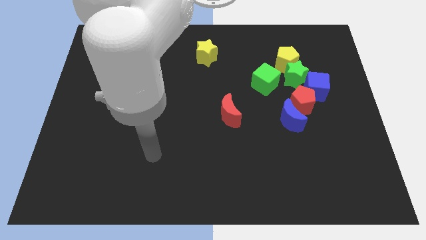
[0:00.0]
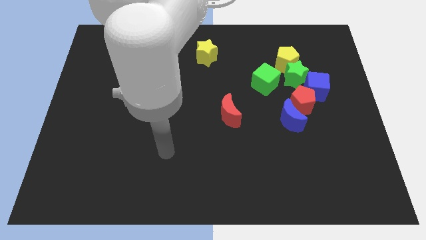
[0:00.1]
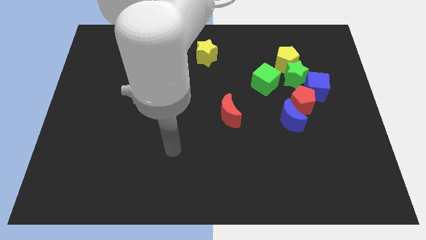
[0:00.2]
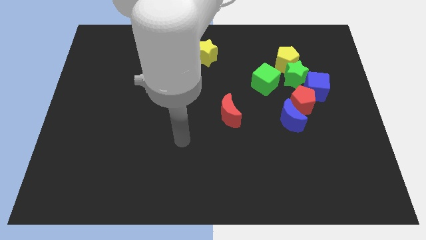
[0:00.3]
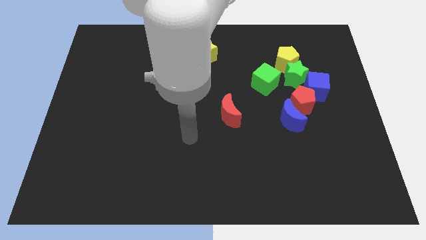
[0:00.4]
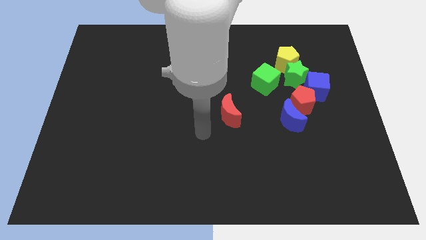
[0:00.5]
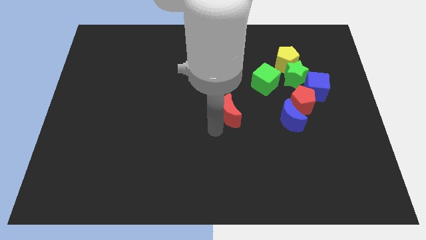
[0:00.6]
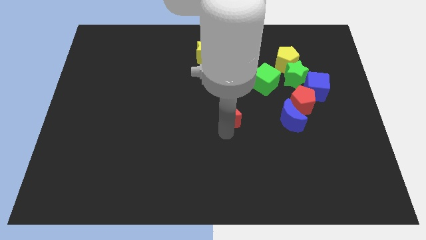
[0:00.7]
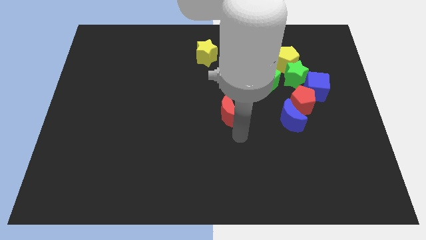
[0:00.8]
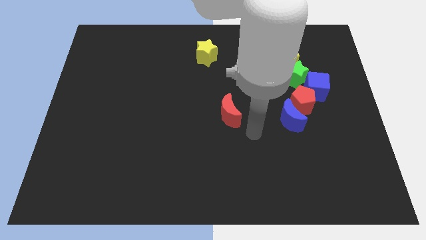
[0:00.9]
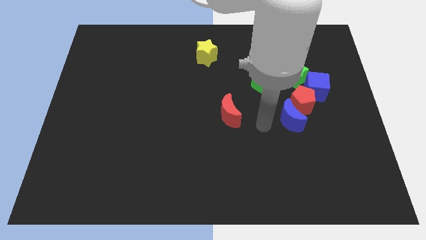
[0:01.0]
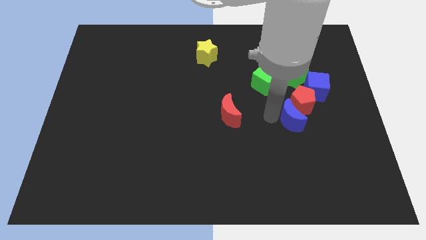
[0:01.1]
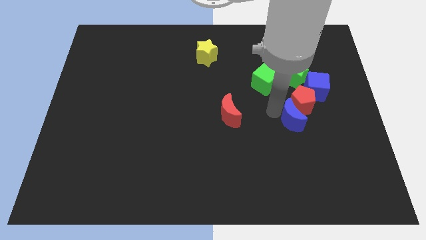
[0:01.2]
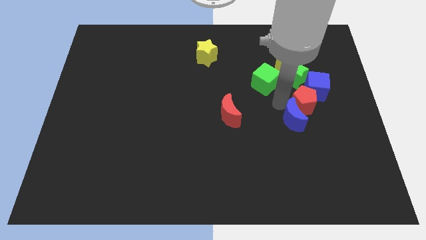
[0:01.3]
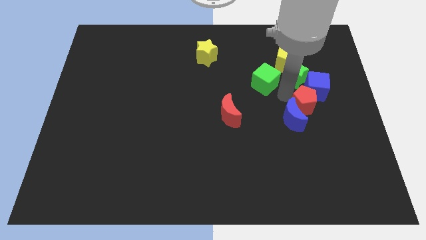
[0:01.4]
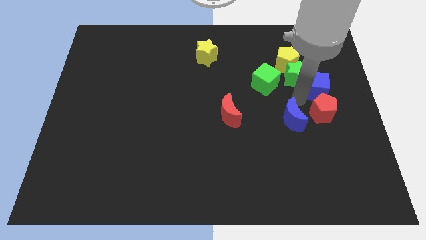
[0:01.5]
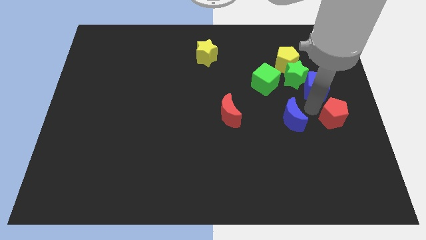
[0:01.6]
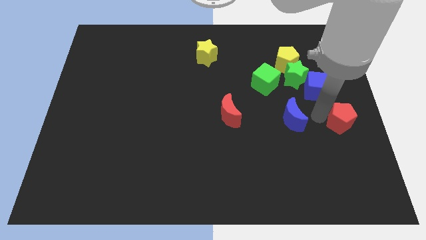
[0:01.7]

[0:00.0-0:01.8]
separate the blue moon from the red pentagon

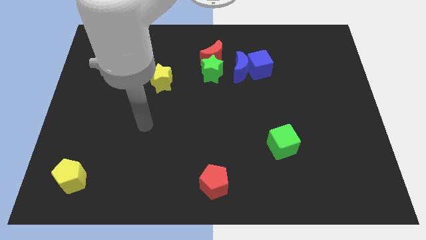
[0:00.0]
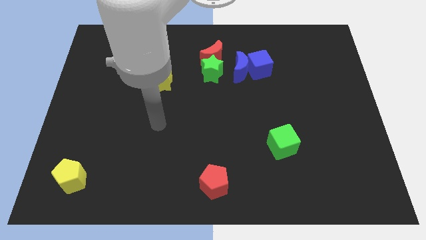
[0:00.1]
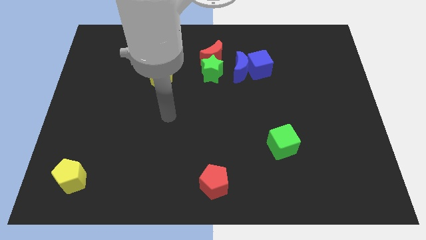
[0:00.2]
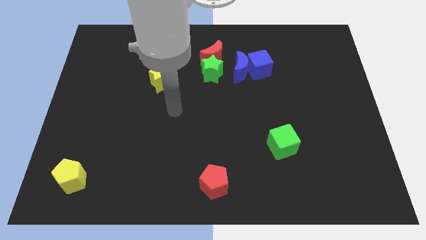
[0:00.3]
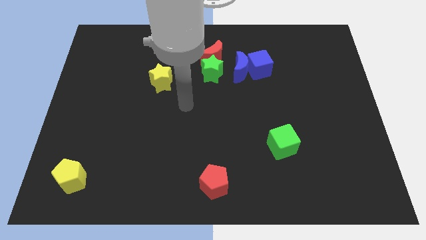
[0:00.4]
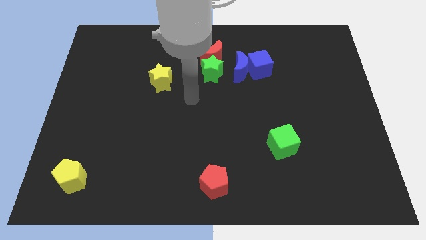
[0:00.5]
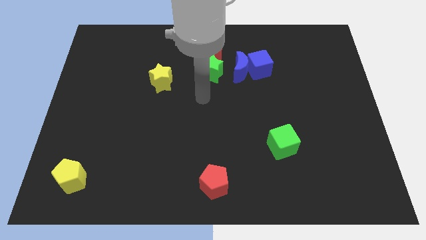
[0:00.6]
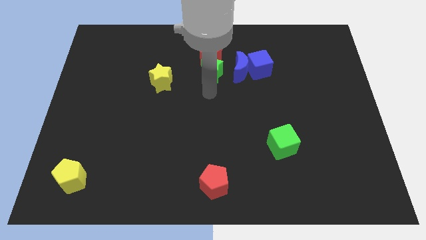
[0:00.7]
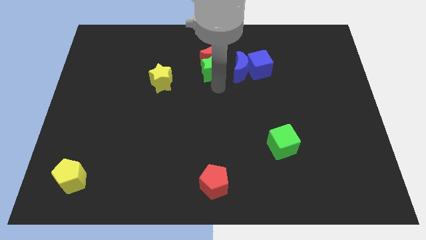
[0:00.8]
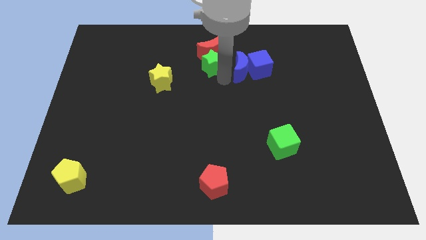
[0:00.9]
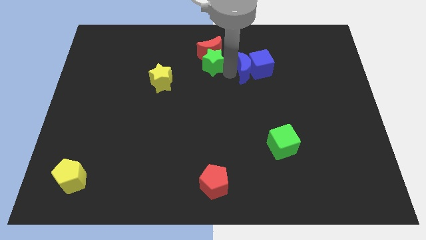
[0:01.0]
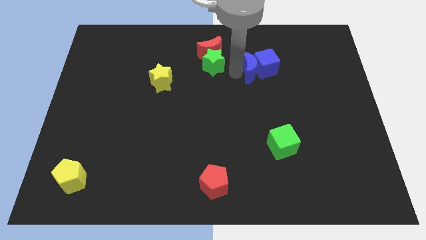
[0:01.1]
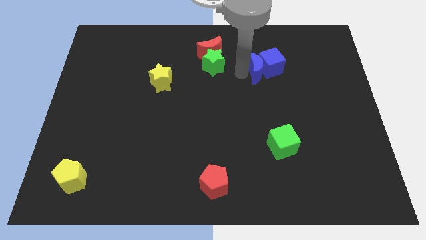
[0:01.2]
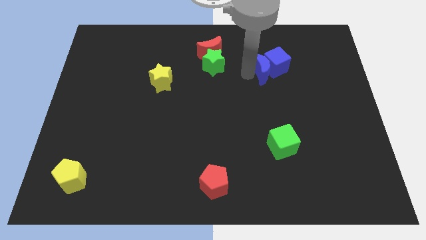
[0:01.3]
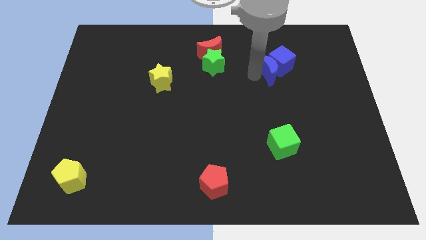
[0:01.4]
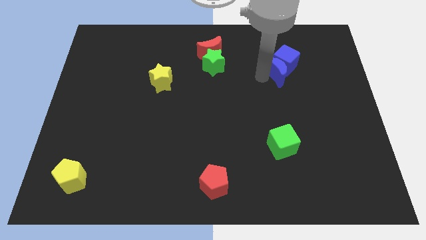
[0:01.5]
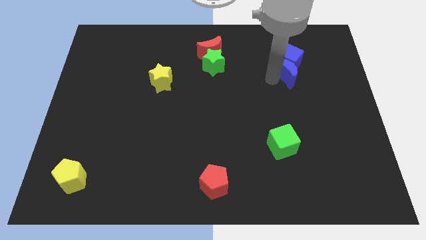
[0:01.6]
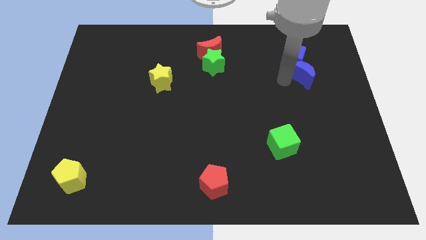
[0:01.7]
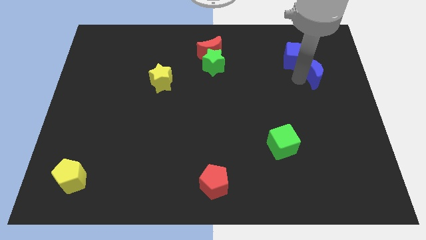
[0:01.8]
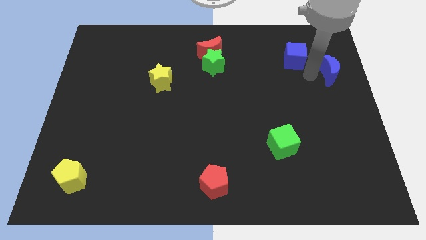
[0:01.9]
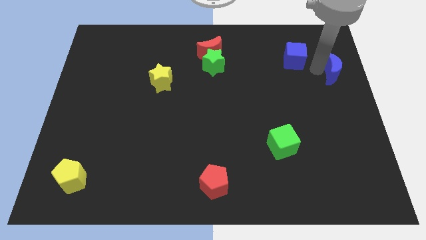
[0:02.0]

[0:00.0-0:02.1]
separate the blue cube from the blue moon

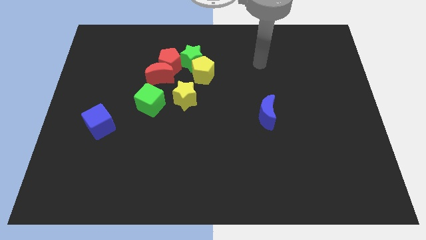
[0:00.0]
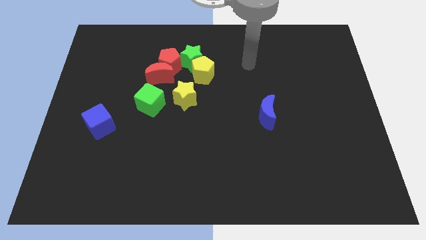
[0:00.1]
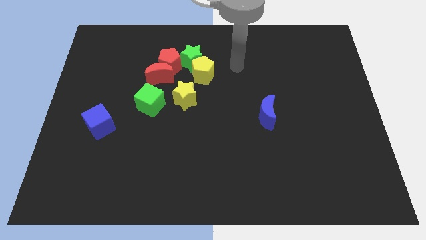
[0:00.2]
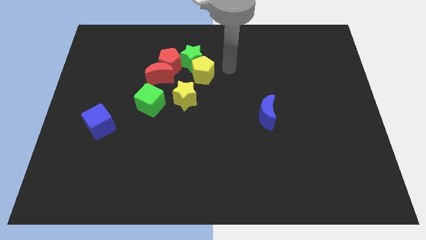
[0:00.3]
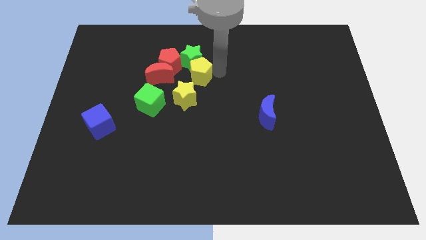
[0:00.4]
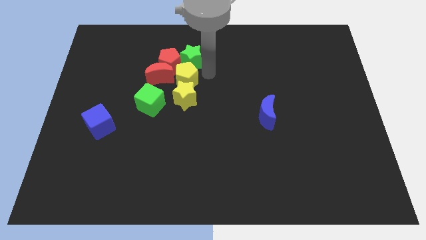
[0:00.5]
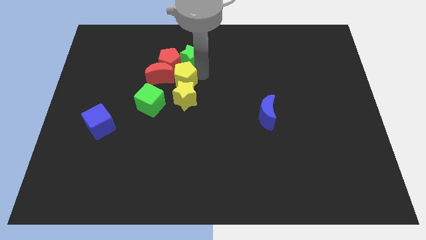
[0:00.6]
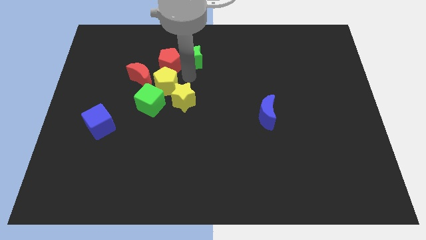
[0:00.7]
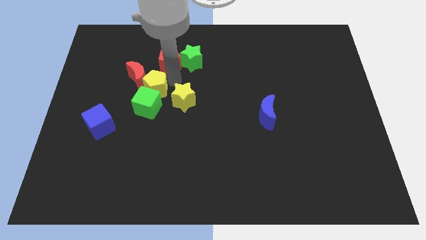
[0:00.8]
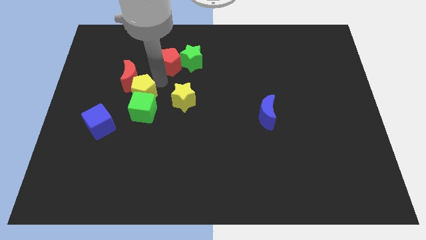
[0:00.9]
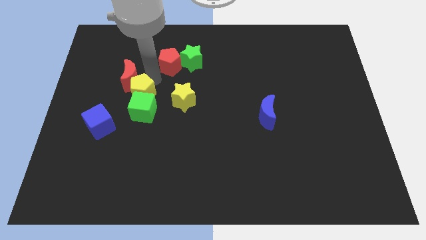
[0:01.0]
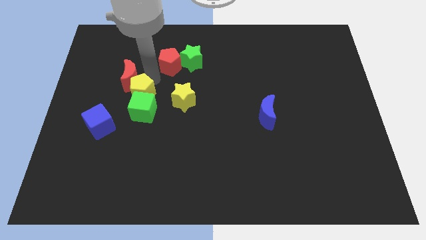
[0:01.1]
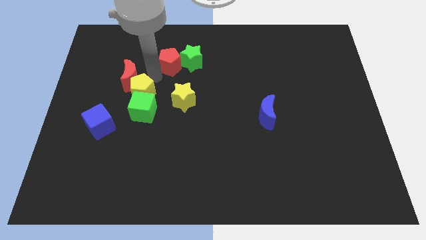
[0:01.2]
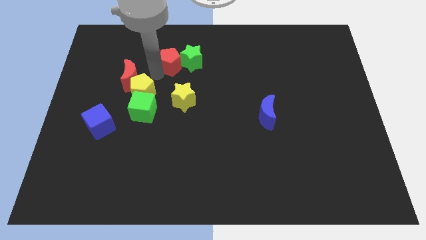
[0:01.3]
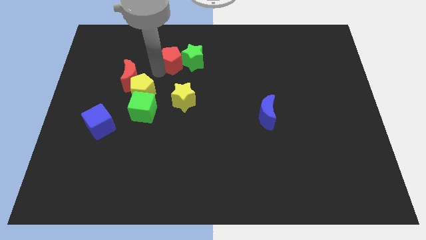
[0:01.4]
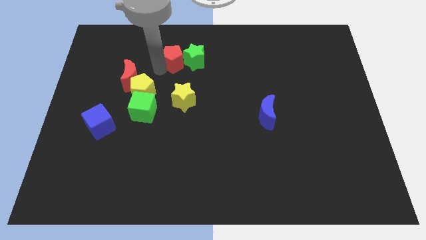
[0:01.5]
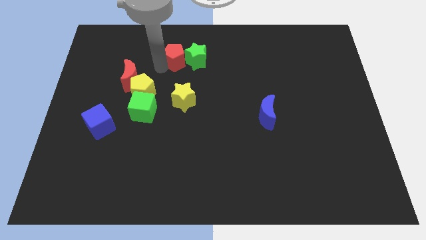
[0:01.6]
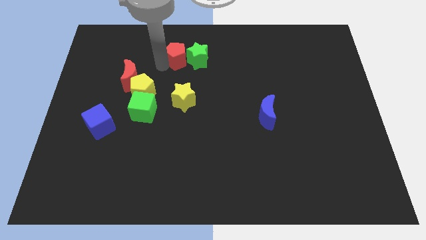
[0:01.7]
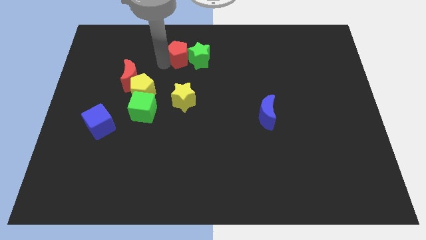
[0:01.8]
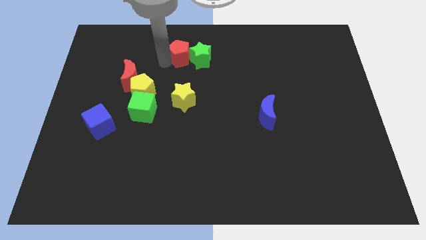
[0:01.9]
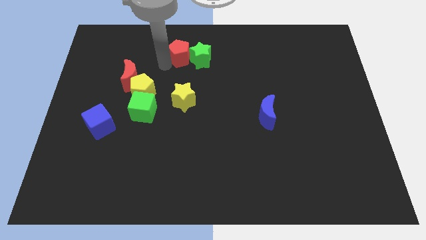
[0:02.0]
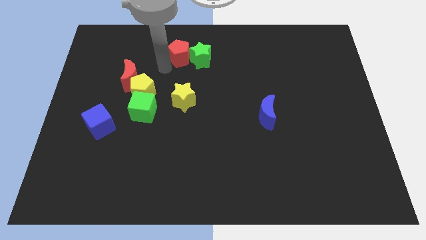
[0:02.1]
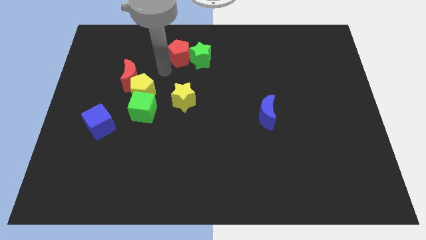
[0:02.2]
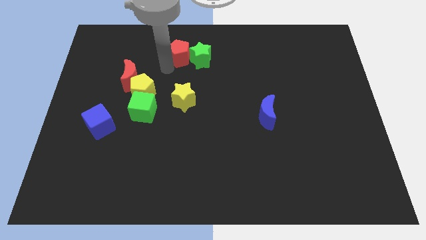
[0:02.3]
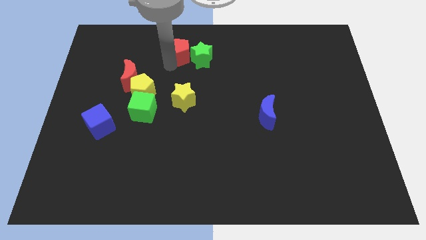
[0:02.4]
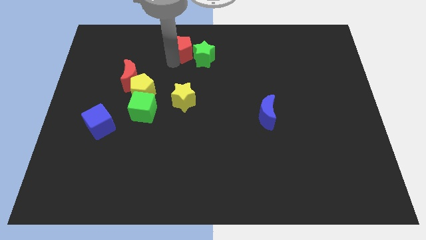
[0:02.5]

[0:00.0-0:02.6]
move the red pentagon away from the red moon, green star, and yellow pentagon

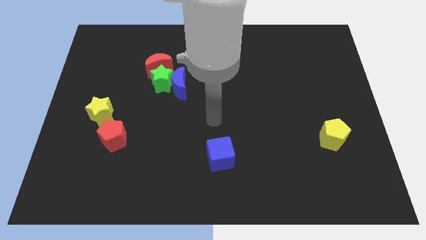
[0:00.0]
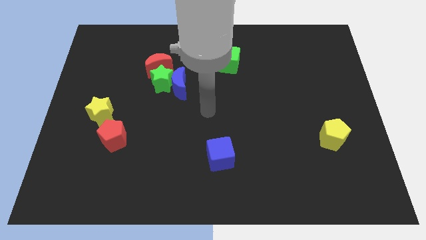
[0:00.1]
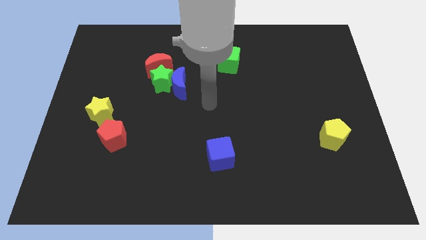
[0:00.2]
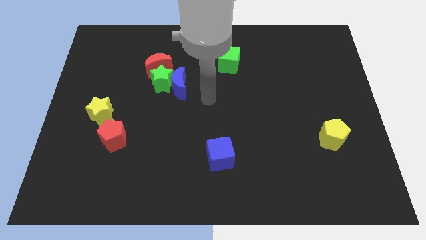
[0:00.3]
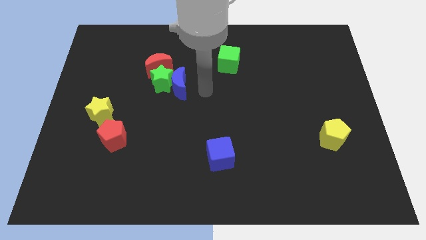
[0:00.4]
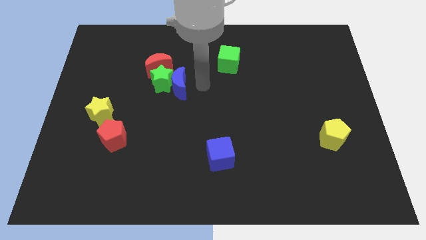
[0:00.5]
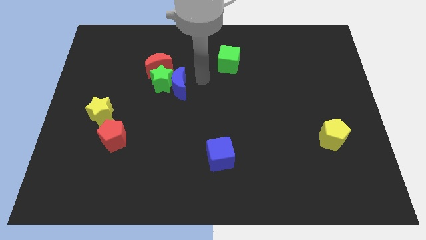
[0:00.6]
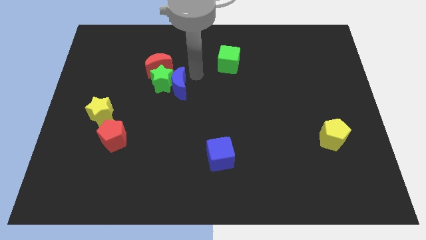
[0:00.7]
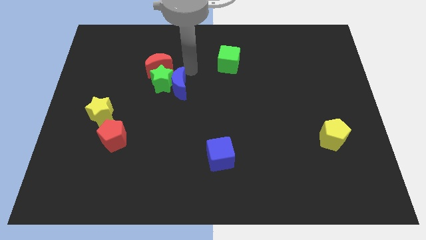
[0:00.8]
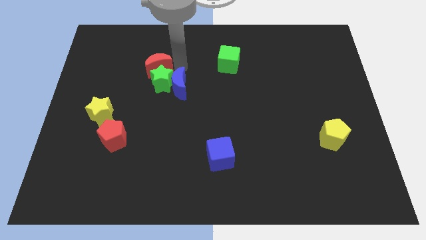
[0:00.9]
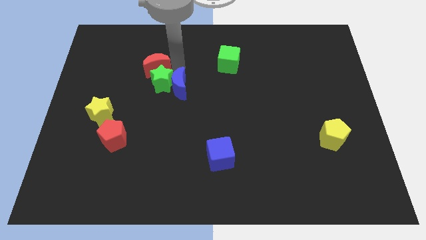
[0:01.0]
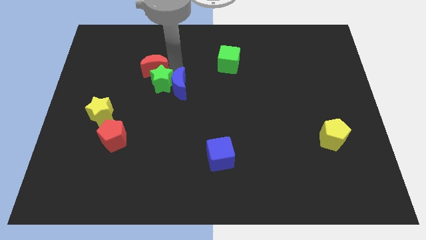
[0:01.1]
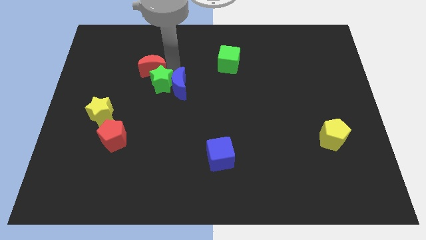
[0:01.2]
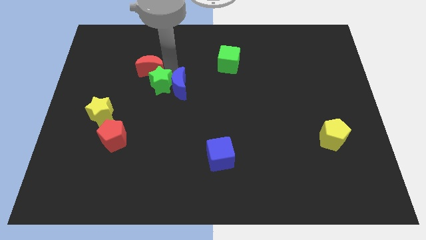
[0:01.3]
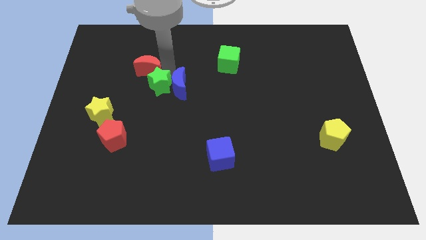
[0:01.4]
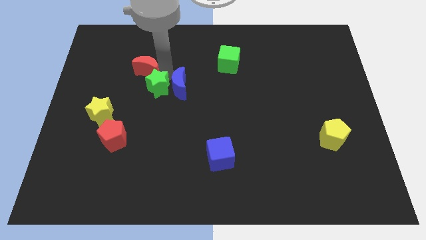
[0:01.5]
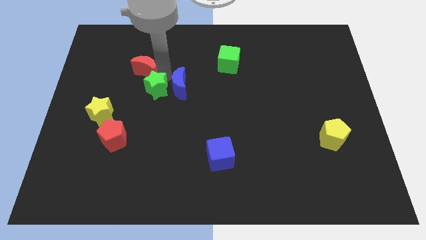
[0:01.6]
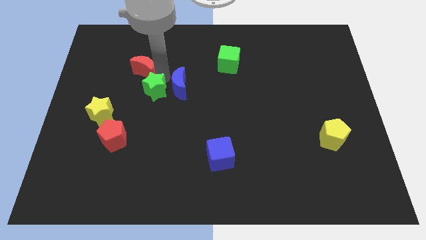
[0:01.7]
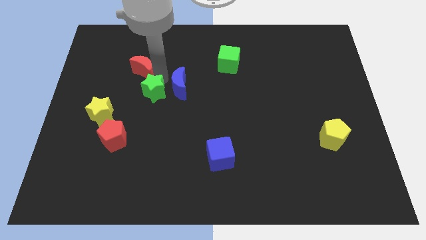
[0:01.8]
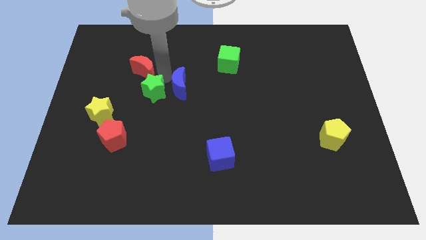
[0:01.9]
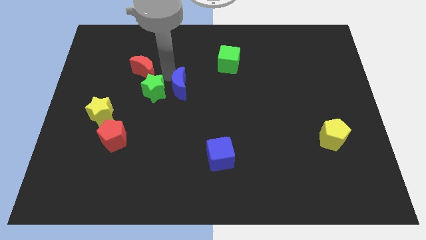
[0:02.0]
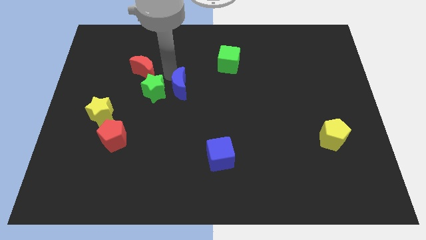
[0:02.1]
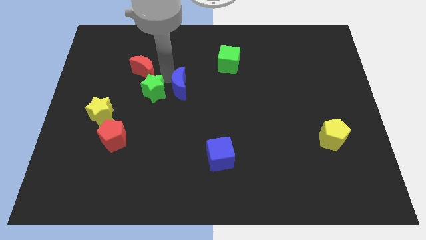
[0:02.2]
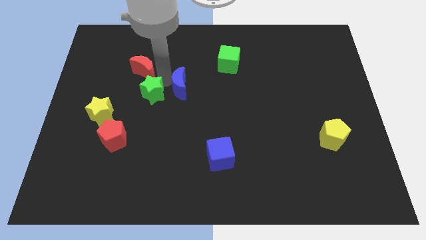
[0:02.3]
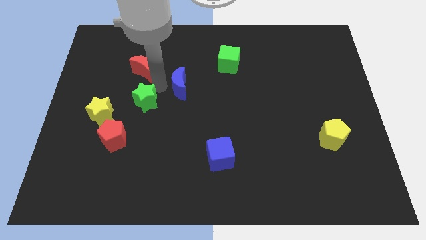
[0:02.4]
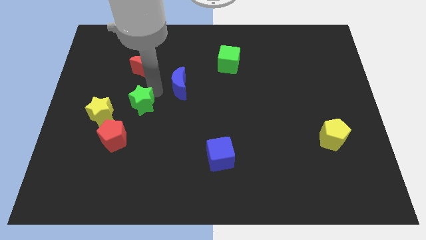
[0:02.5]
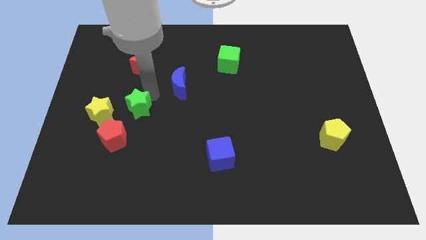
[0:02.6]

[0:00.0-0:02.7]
separate the green star from the blue moon and red moon

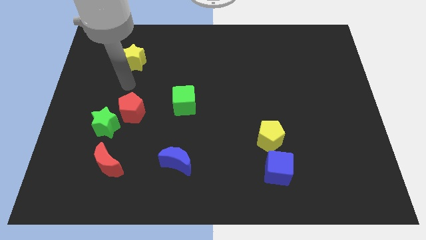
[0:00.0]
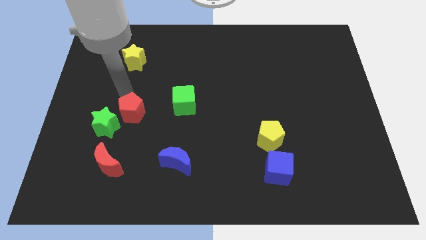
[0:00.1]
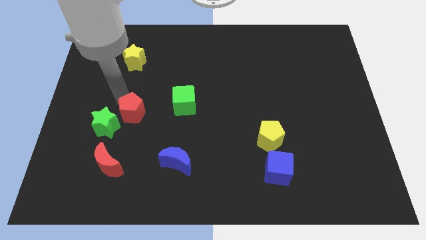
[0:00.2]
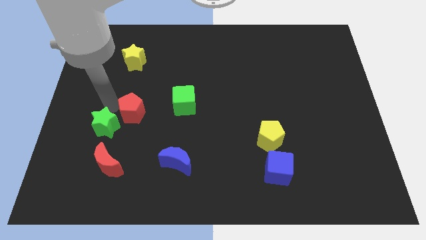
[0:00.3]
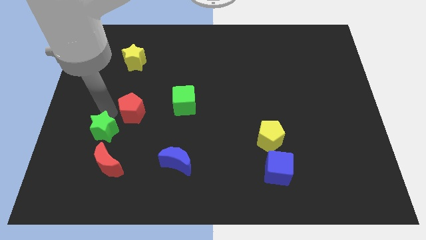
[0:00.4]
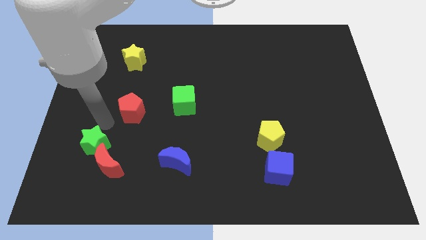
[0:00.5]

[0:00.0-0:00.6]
pull the red pentagon apart from the green star
